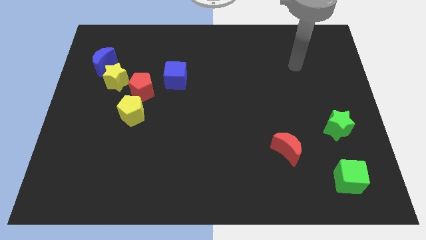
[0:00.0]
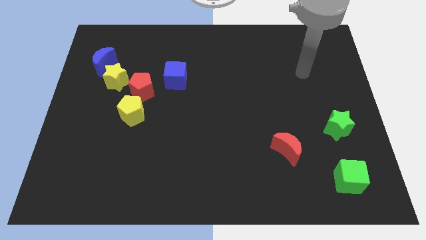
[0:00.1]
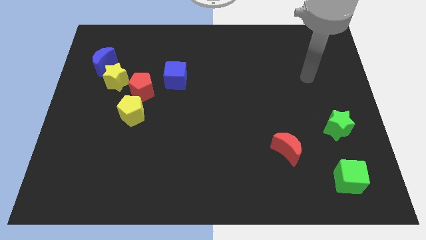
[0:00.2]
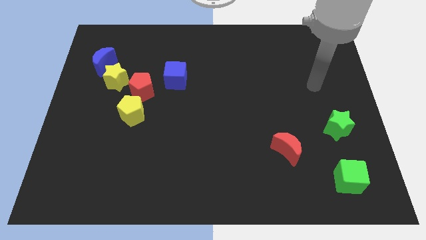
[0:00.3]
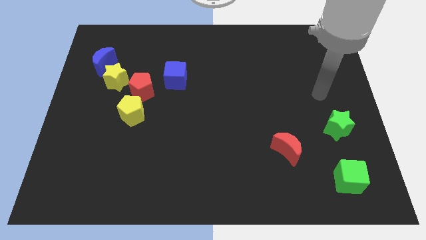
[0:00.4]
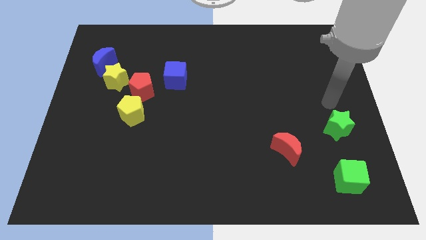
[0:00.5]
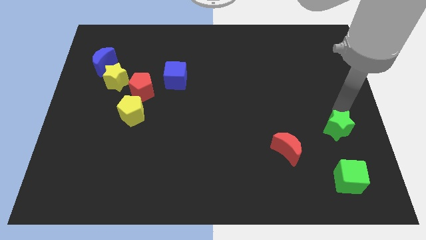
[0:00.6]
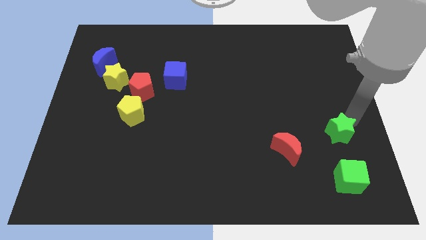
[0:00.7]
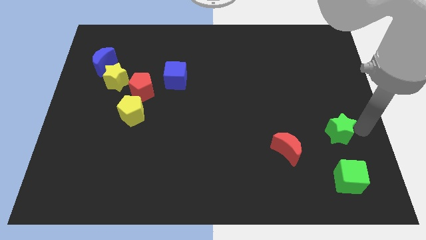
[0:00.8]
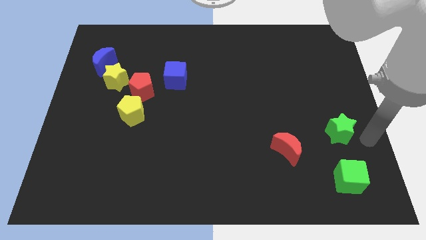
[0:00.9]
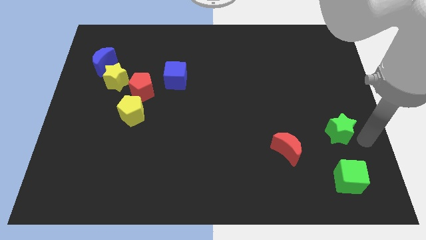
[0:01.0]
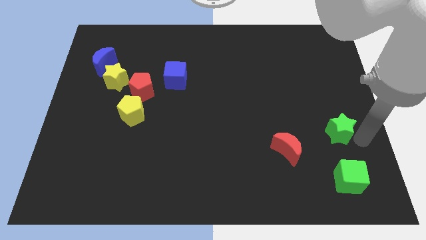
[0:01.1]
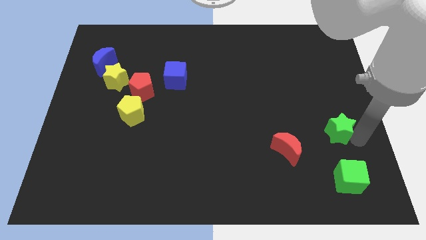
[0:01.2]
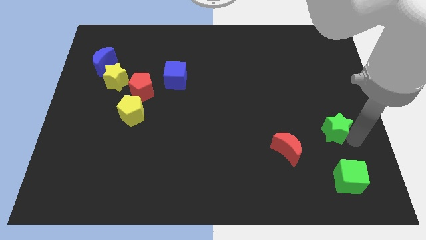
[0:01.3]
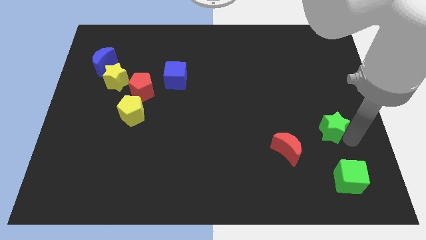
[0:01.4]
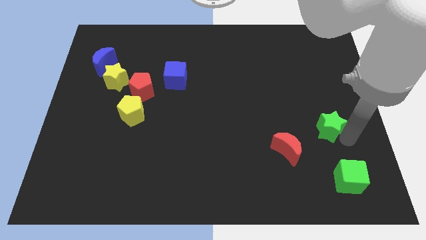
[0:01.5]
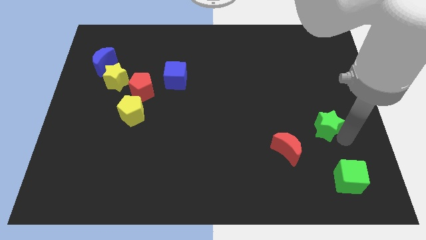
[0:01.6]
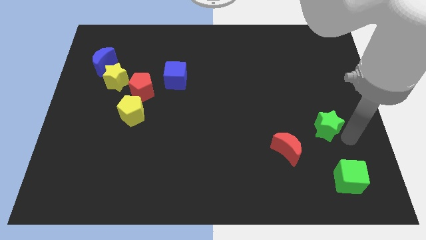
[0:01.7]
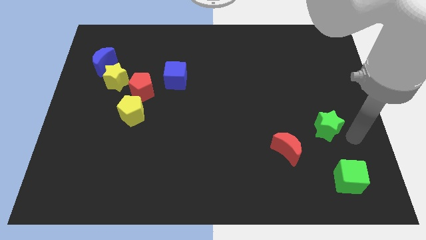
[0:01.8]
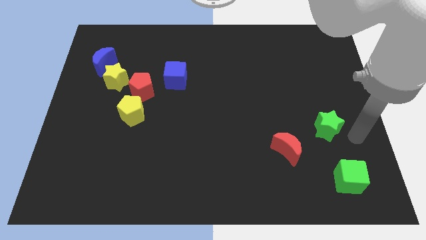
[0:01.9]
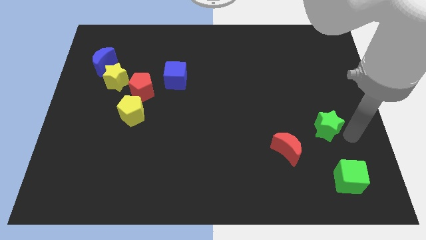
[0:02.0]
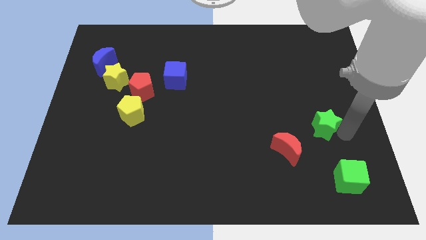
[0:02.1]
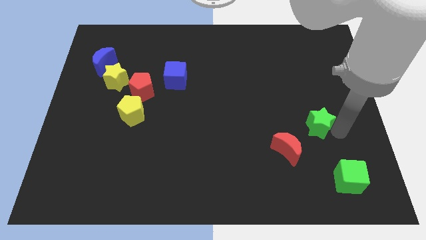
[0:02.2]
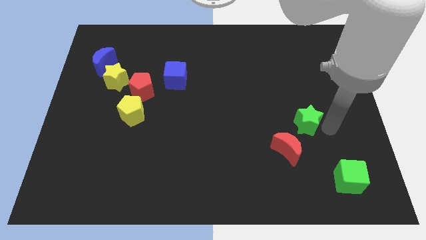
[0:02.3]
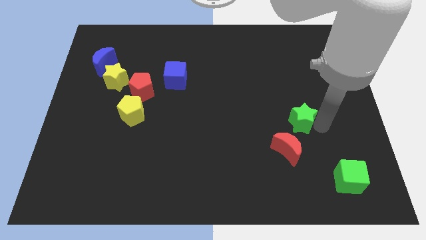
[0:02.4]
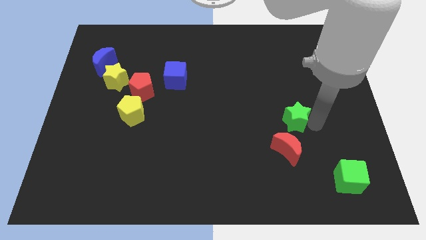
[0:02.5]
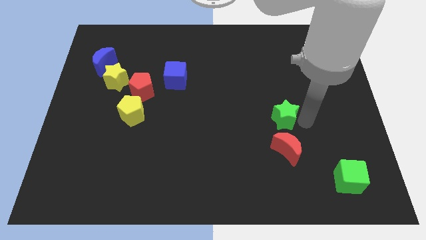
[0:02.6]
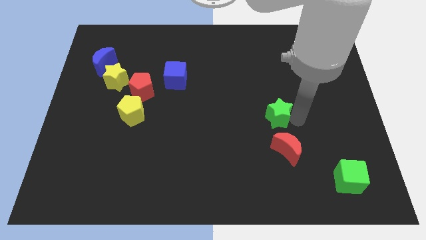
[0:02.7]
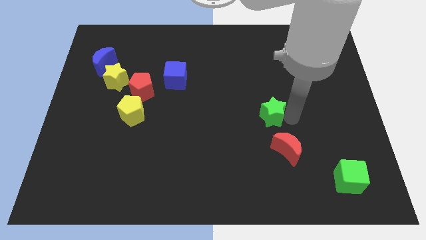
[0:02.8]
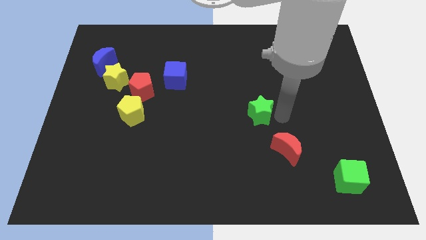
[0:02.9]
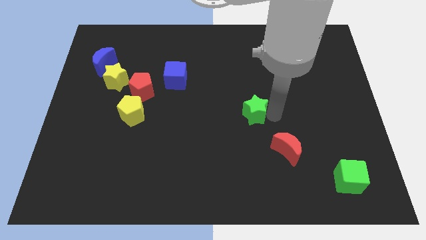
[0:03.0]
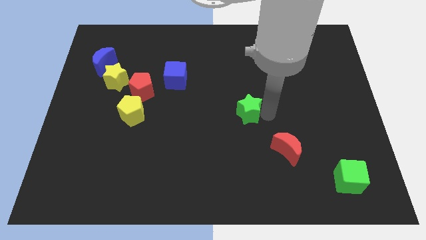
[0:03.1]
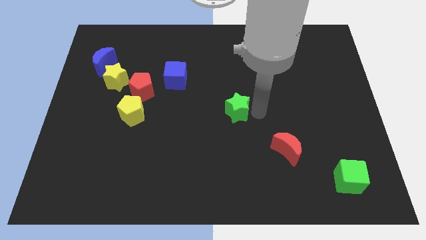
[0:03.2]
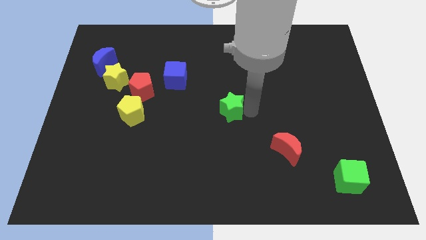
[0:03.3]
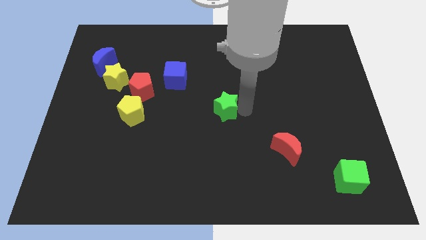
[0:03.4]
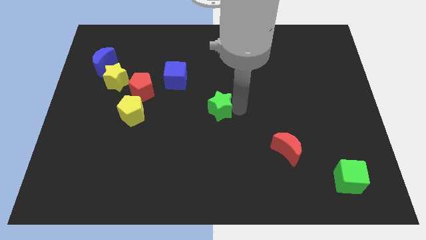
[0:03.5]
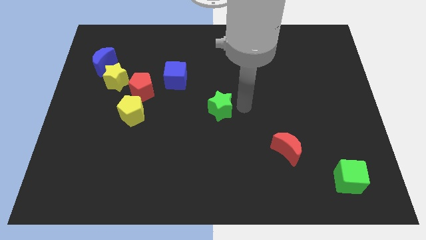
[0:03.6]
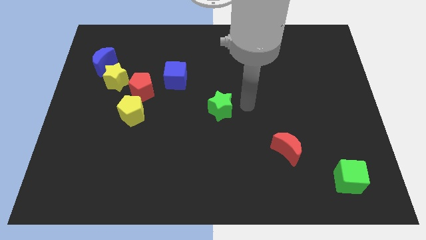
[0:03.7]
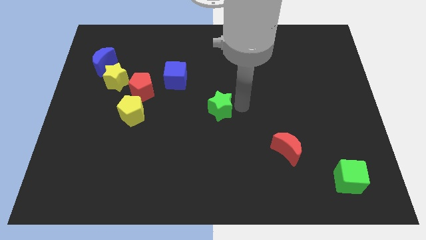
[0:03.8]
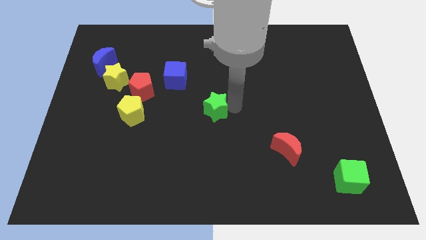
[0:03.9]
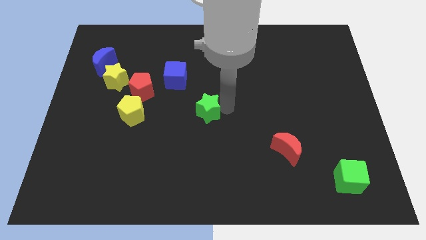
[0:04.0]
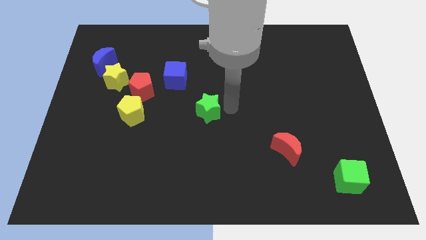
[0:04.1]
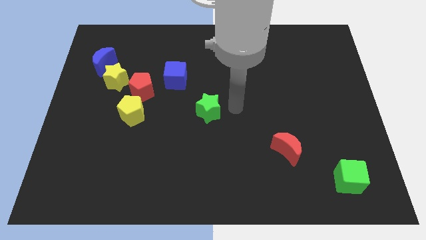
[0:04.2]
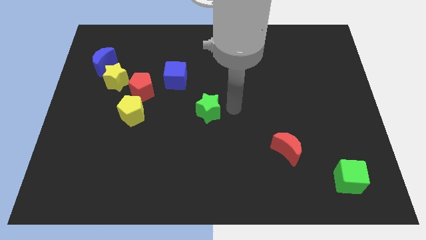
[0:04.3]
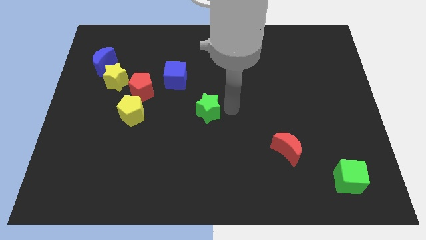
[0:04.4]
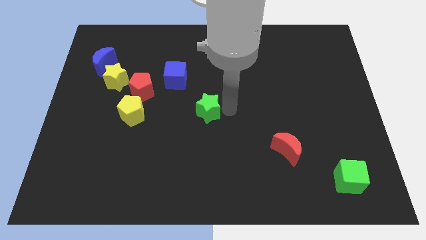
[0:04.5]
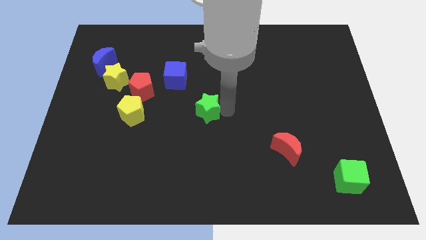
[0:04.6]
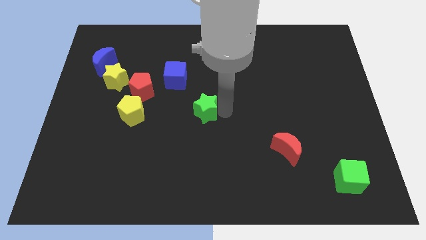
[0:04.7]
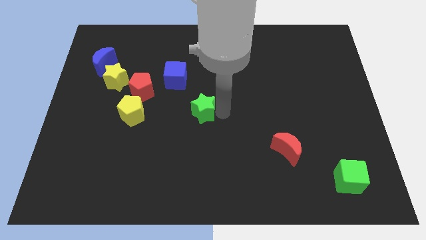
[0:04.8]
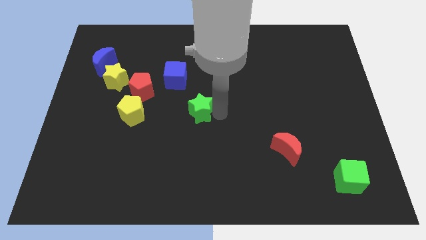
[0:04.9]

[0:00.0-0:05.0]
move the green star to the right of the yellow pentagon

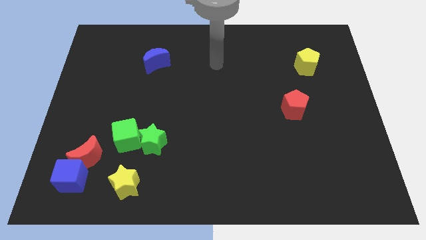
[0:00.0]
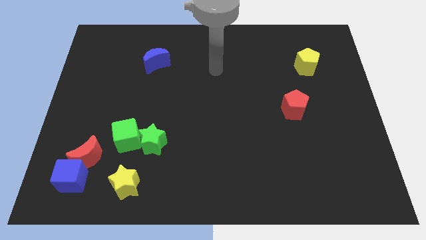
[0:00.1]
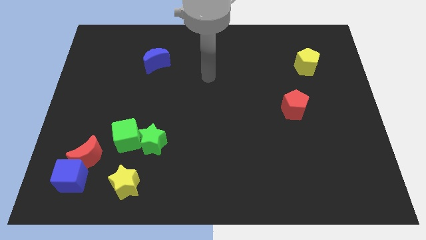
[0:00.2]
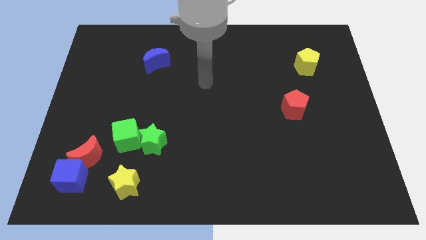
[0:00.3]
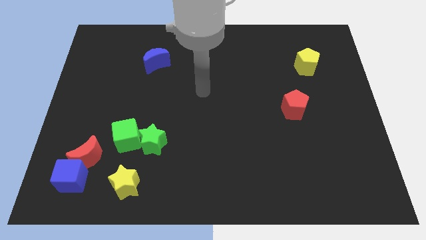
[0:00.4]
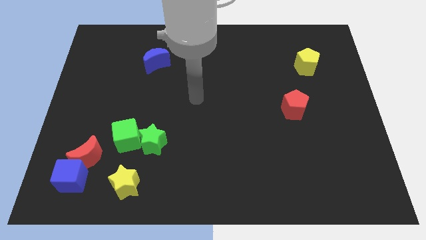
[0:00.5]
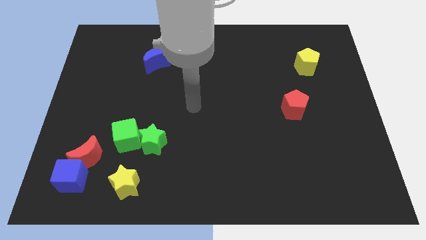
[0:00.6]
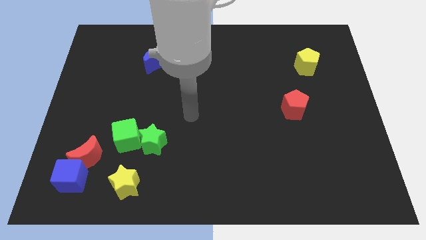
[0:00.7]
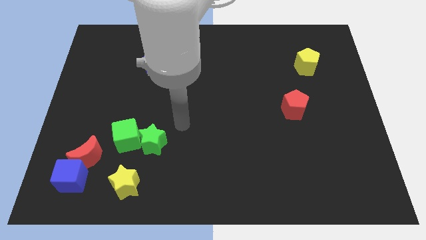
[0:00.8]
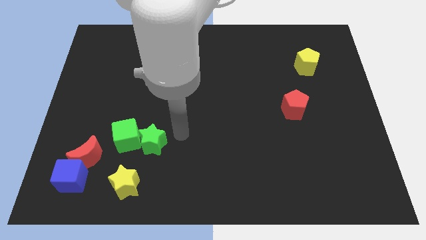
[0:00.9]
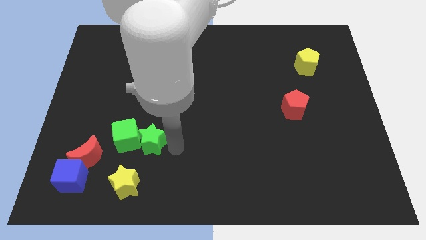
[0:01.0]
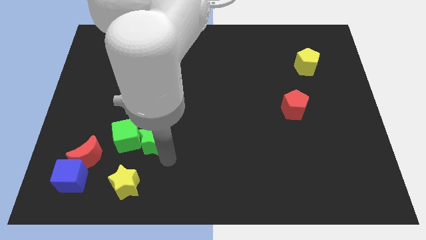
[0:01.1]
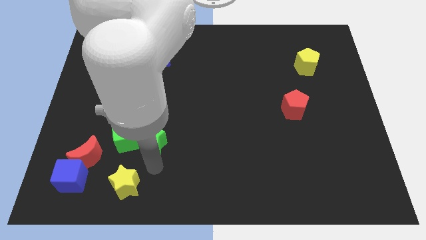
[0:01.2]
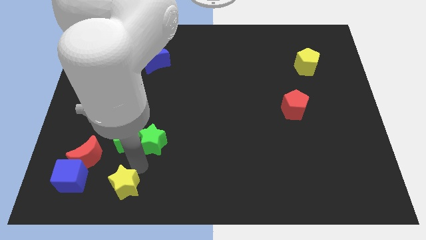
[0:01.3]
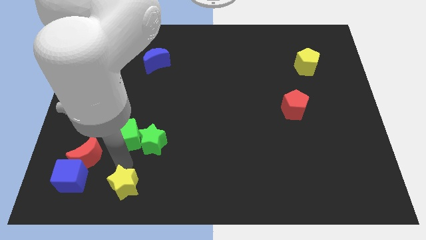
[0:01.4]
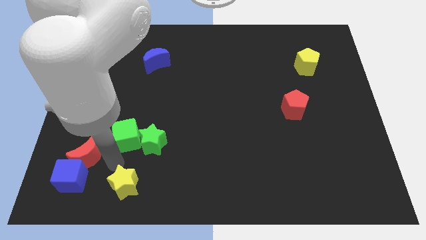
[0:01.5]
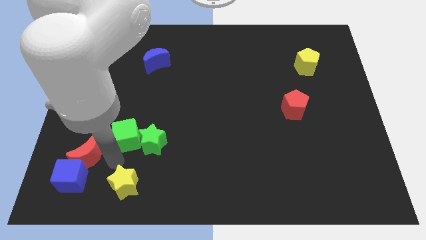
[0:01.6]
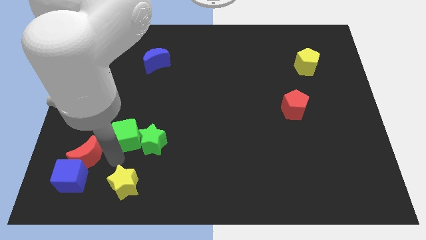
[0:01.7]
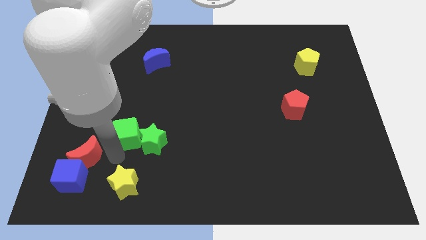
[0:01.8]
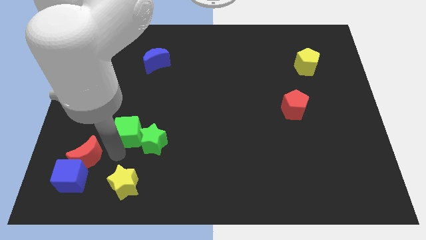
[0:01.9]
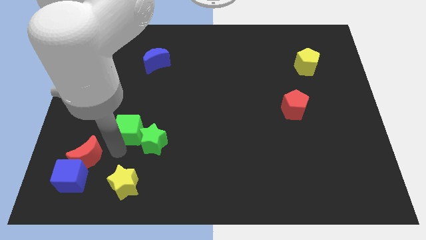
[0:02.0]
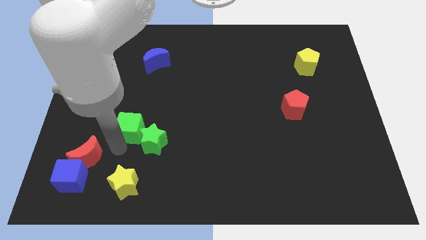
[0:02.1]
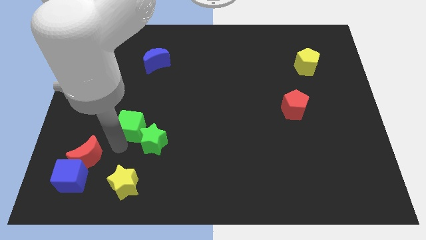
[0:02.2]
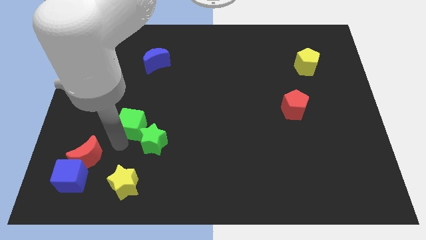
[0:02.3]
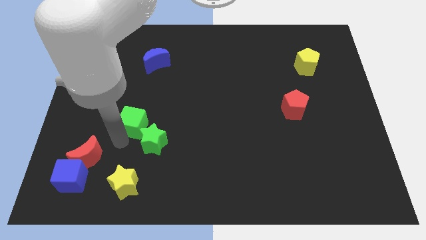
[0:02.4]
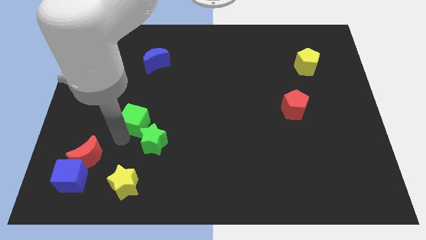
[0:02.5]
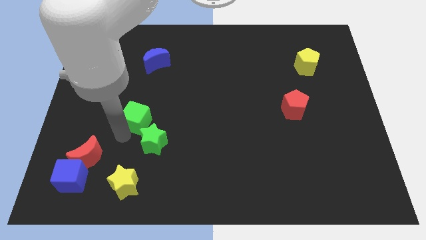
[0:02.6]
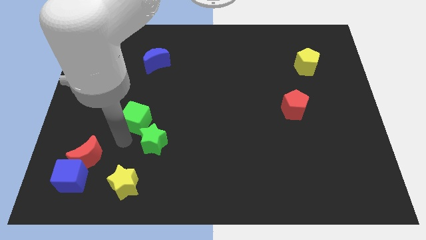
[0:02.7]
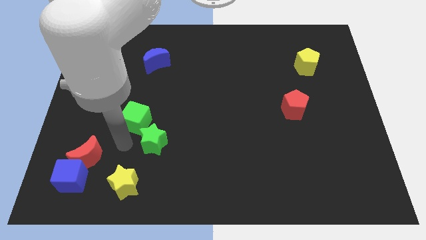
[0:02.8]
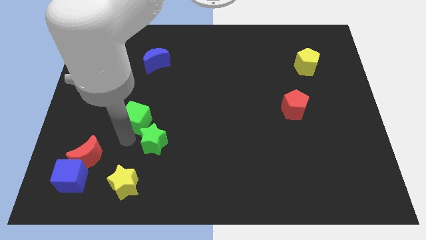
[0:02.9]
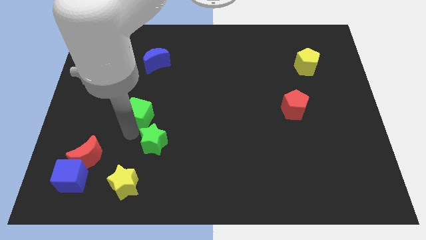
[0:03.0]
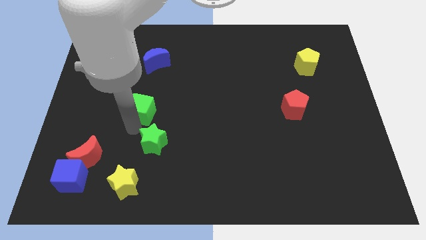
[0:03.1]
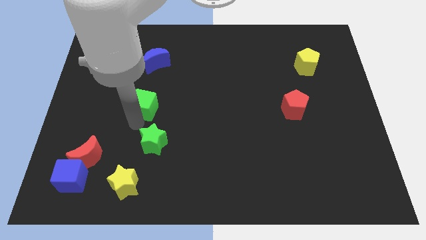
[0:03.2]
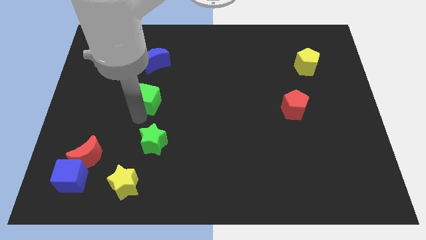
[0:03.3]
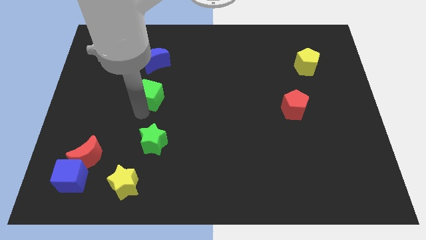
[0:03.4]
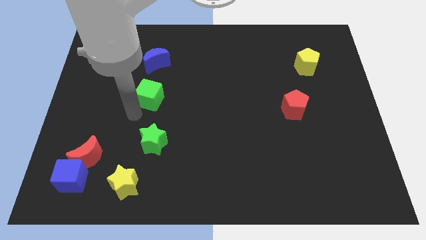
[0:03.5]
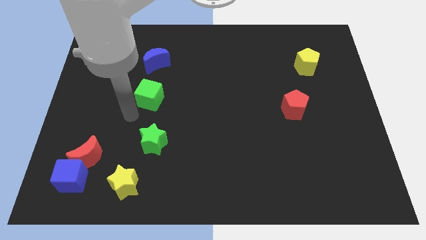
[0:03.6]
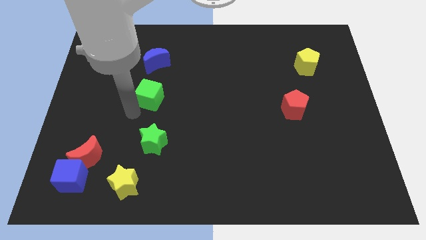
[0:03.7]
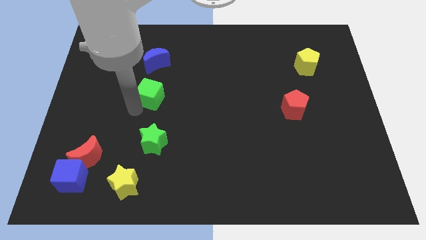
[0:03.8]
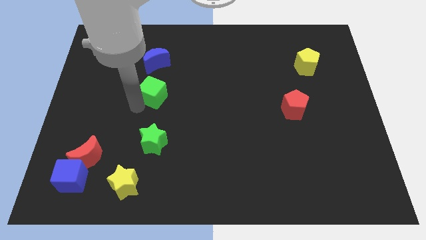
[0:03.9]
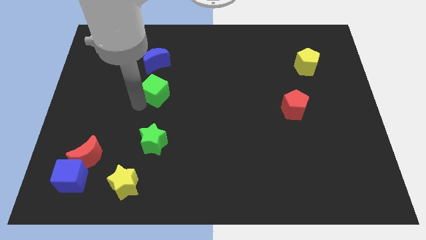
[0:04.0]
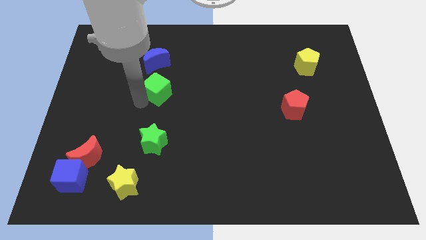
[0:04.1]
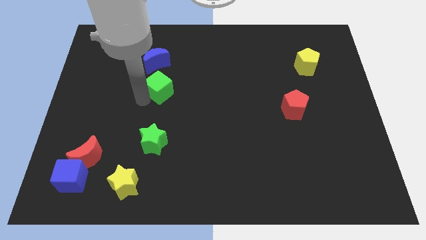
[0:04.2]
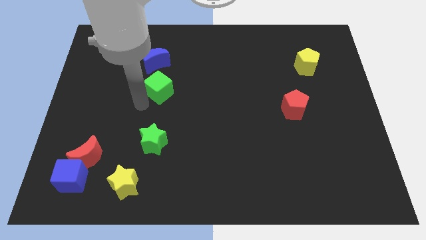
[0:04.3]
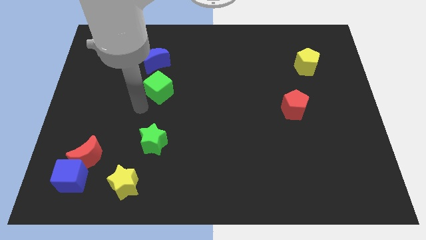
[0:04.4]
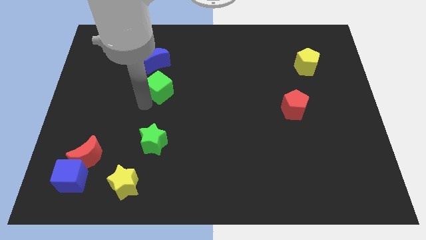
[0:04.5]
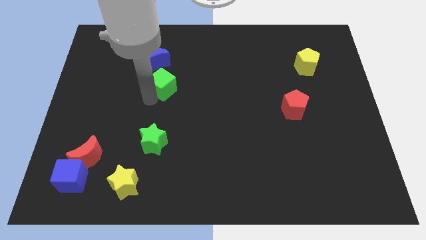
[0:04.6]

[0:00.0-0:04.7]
put the green cube to the bottom right of the blue moon
